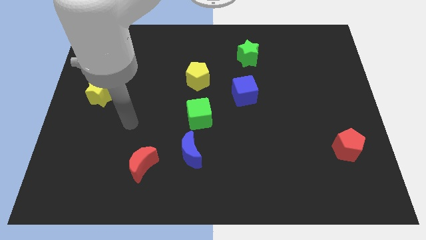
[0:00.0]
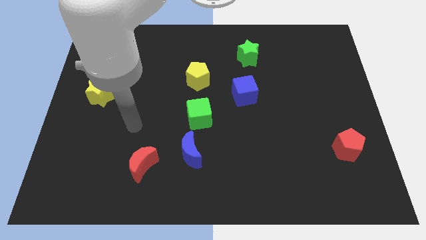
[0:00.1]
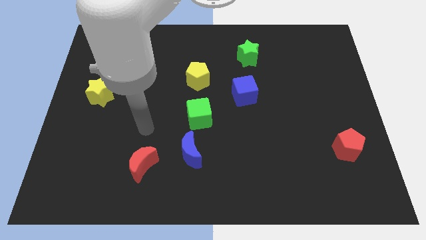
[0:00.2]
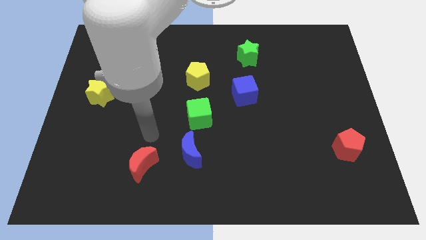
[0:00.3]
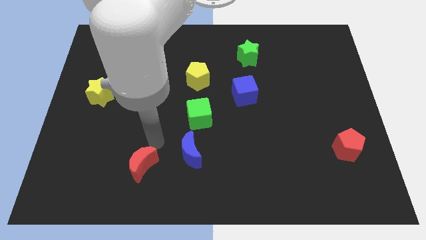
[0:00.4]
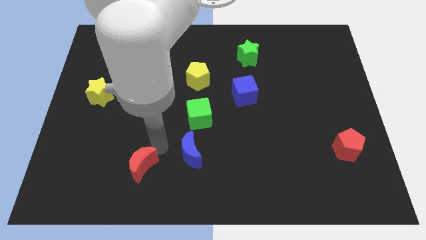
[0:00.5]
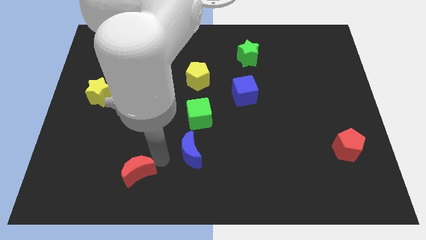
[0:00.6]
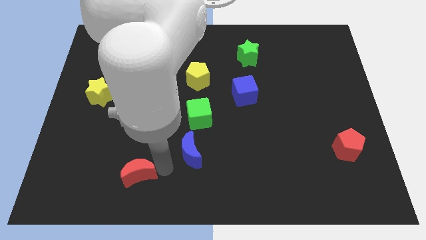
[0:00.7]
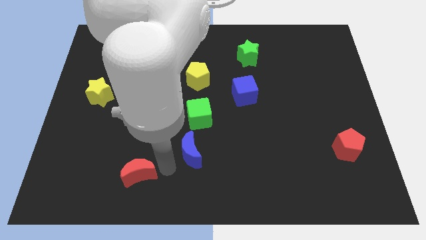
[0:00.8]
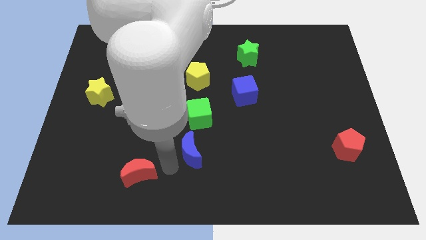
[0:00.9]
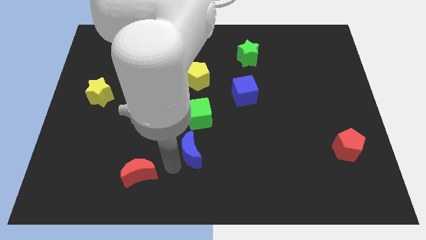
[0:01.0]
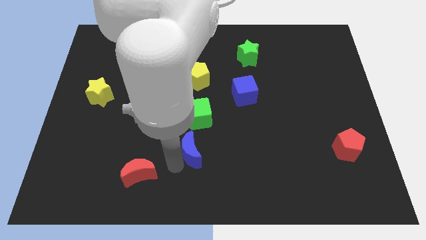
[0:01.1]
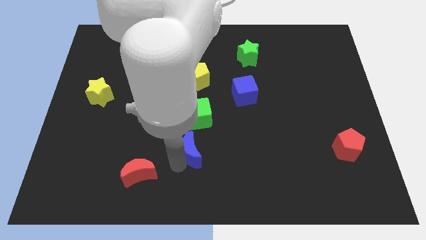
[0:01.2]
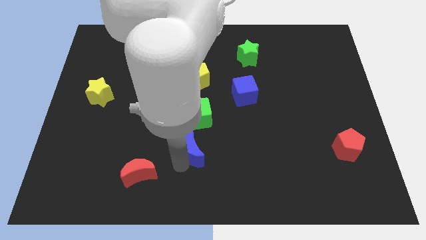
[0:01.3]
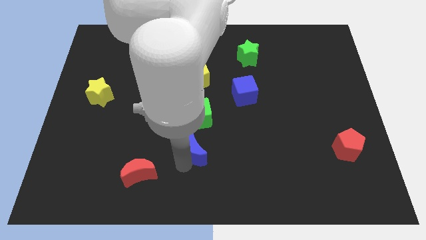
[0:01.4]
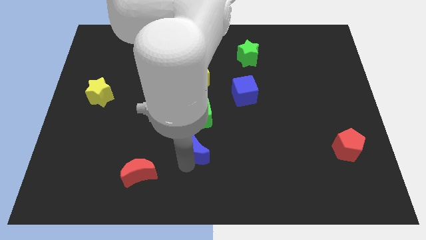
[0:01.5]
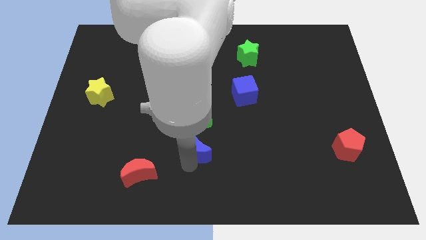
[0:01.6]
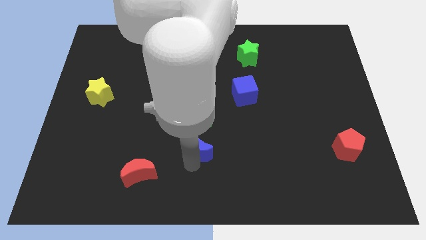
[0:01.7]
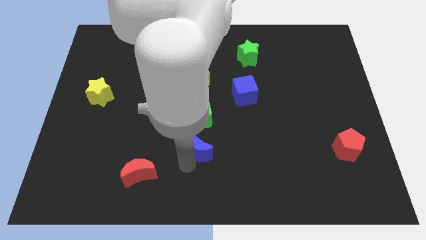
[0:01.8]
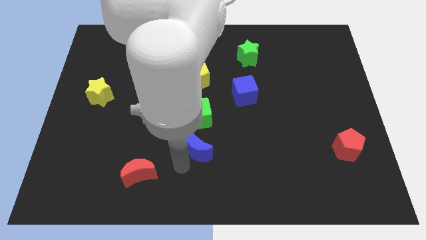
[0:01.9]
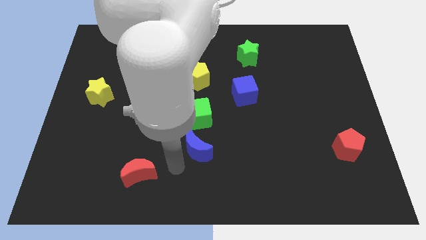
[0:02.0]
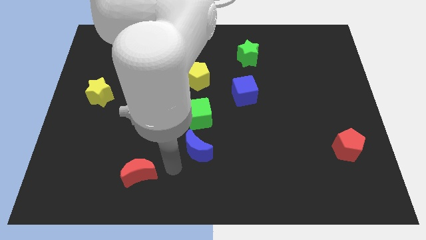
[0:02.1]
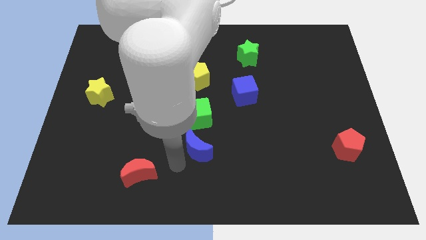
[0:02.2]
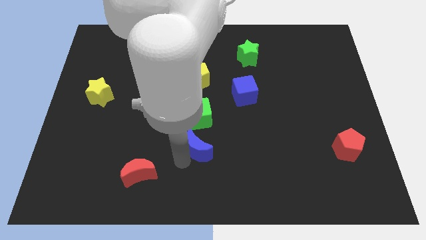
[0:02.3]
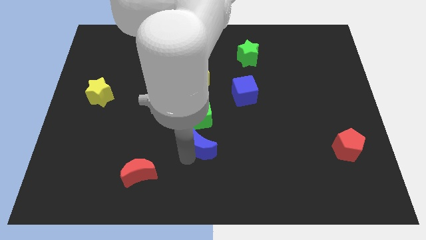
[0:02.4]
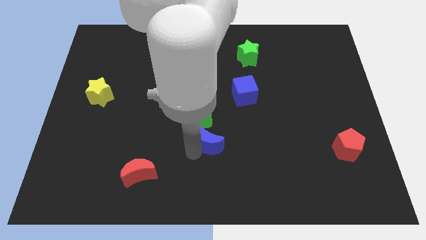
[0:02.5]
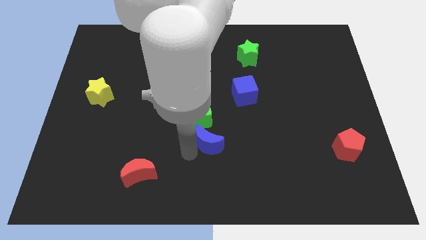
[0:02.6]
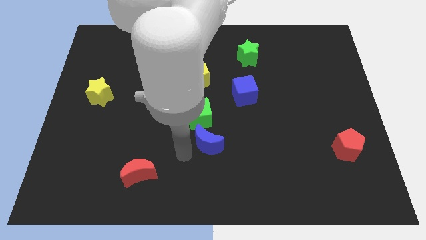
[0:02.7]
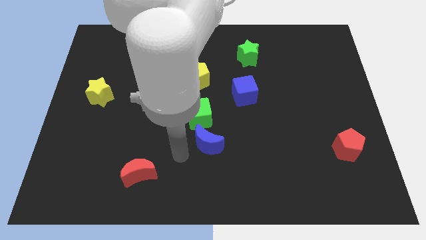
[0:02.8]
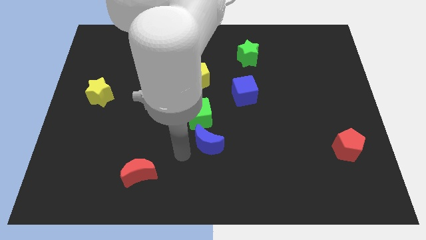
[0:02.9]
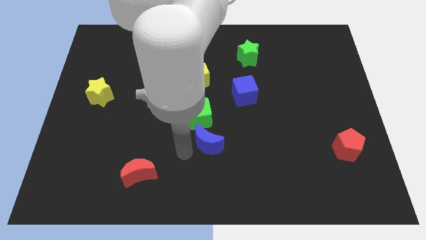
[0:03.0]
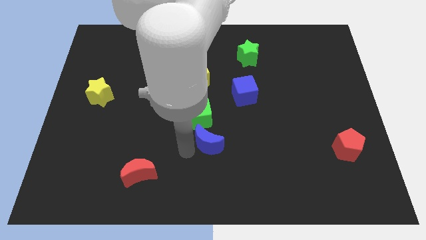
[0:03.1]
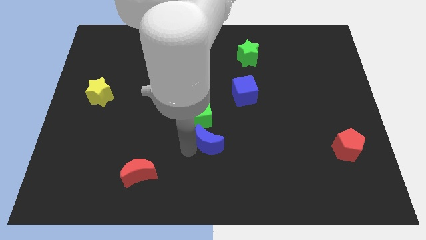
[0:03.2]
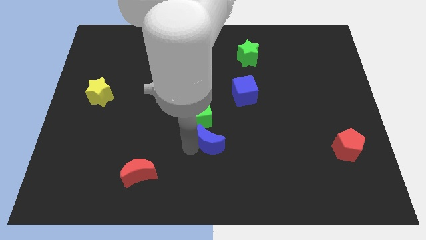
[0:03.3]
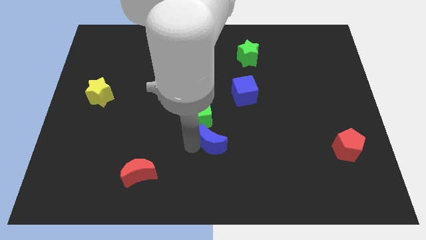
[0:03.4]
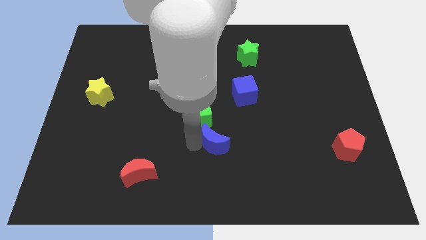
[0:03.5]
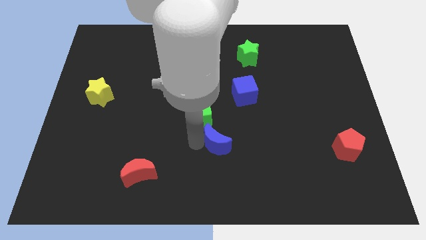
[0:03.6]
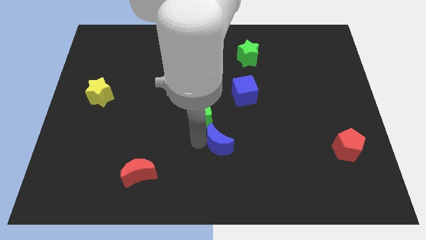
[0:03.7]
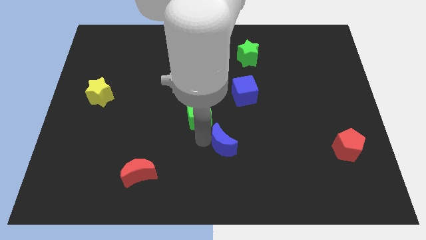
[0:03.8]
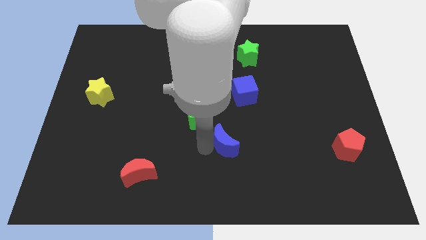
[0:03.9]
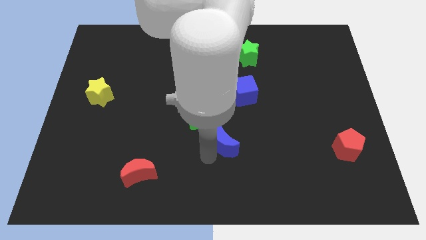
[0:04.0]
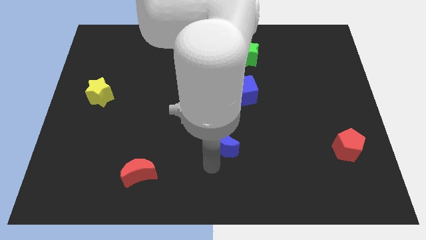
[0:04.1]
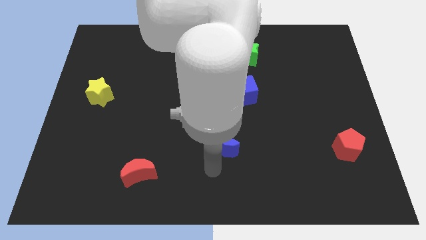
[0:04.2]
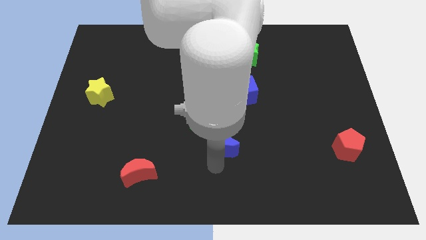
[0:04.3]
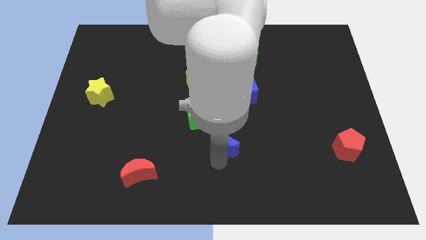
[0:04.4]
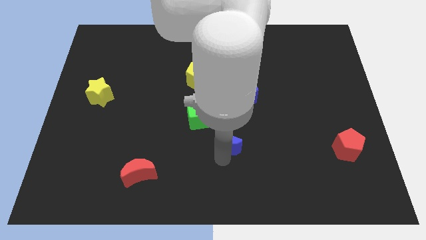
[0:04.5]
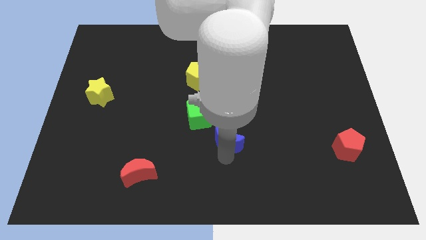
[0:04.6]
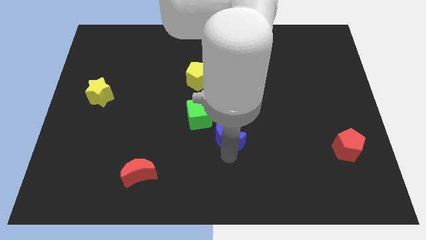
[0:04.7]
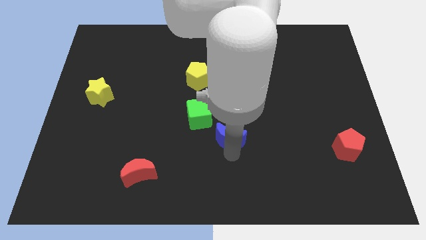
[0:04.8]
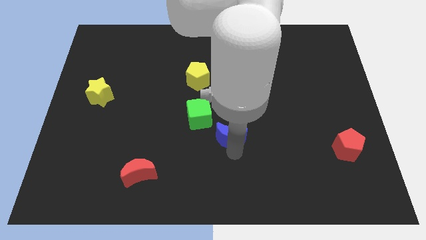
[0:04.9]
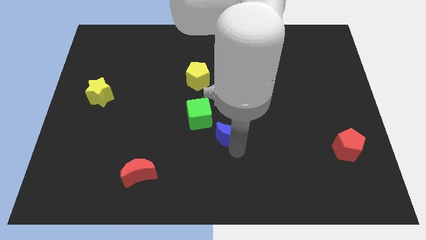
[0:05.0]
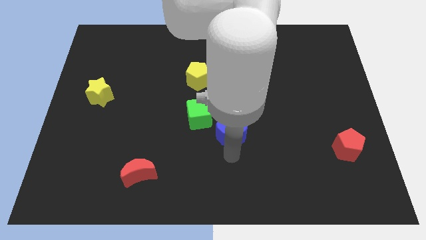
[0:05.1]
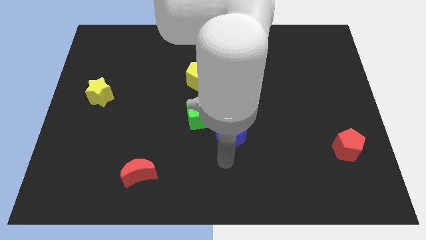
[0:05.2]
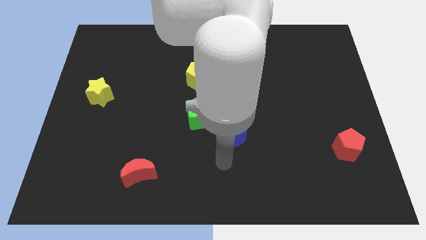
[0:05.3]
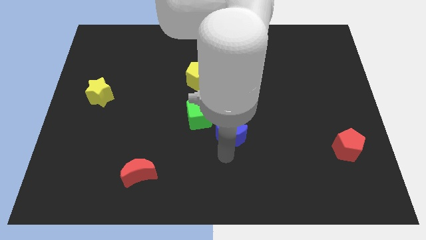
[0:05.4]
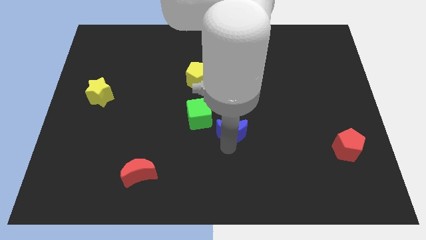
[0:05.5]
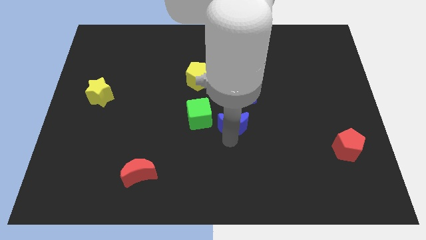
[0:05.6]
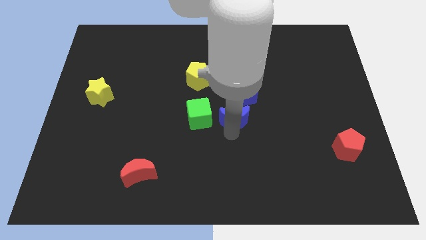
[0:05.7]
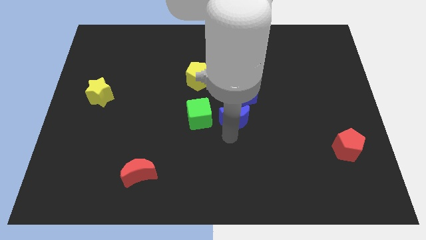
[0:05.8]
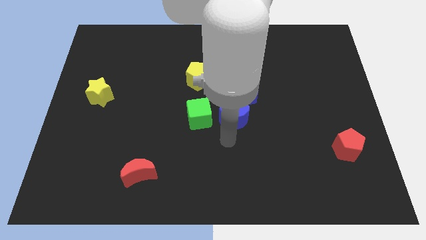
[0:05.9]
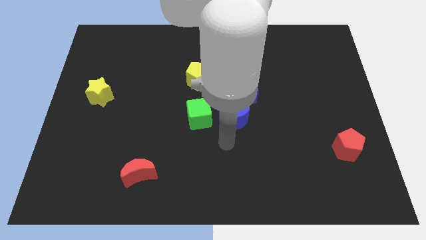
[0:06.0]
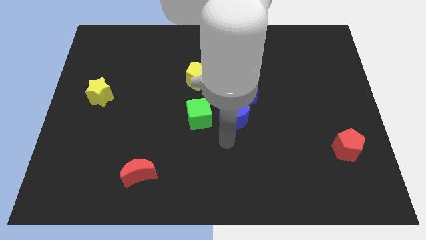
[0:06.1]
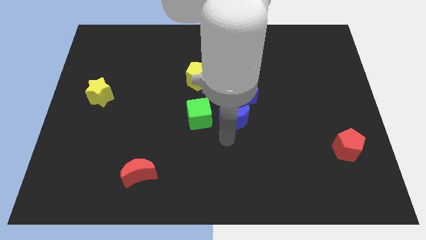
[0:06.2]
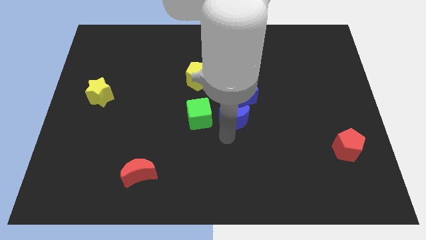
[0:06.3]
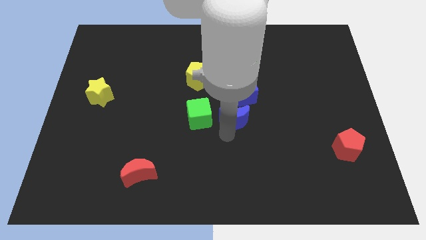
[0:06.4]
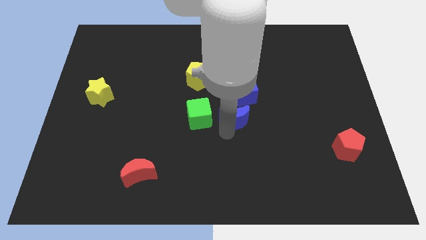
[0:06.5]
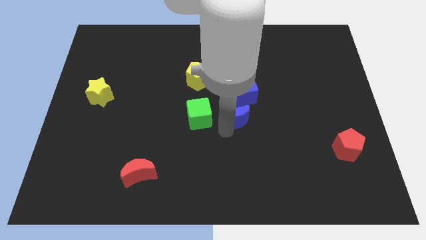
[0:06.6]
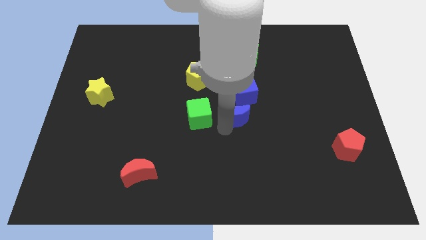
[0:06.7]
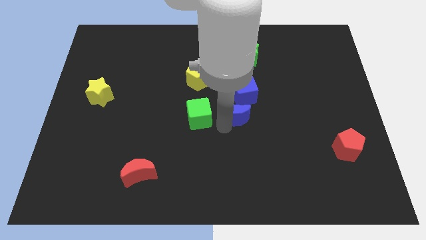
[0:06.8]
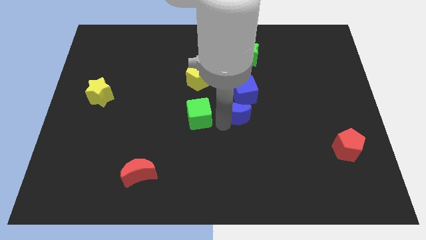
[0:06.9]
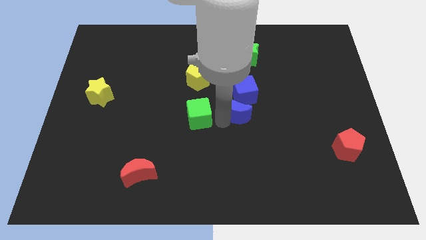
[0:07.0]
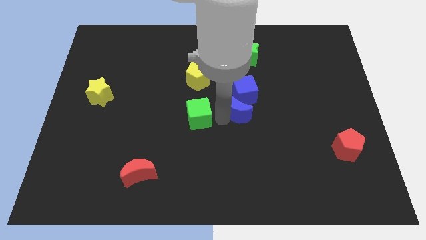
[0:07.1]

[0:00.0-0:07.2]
slide the blue moon to the blue cube

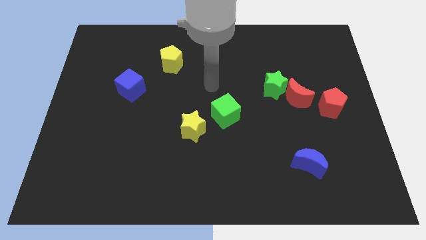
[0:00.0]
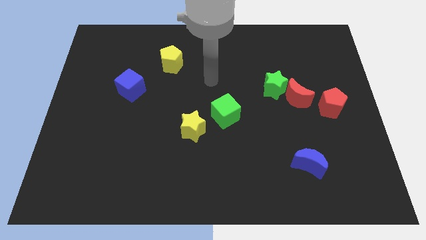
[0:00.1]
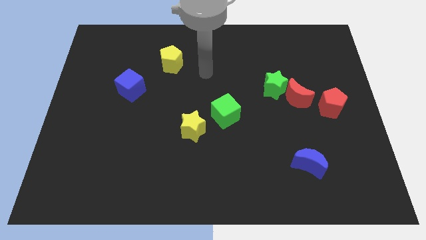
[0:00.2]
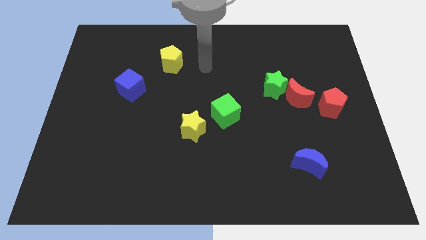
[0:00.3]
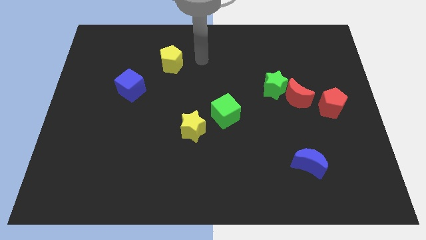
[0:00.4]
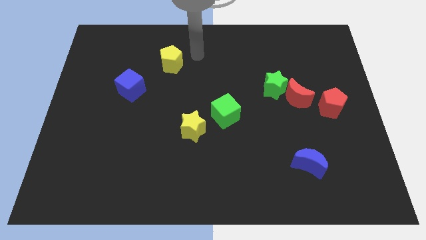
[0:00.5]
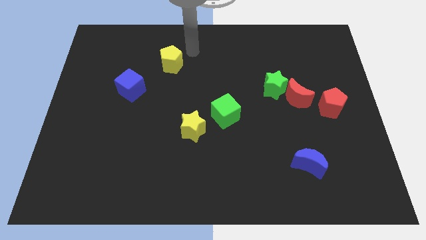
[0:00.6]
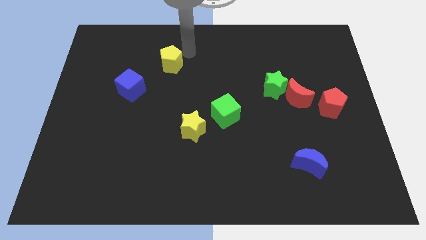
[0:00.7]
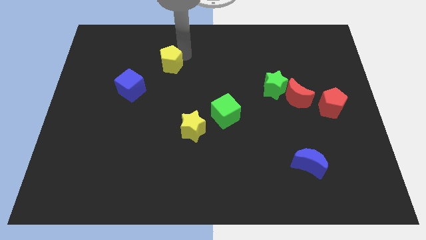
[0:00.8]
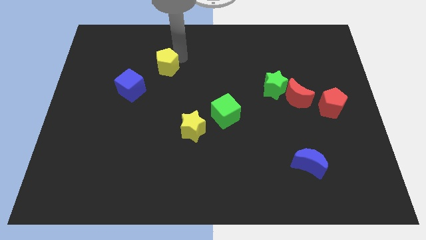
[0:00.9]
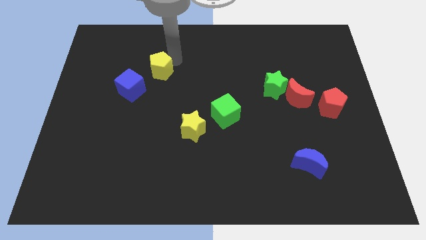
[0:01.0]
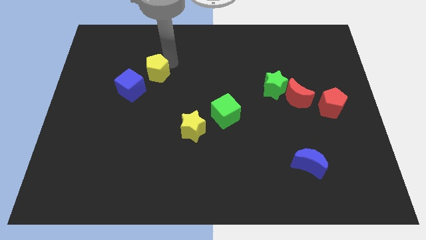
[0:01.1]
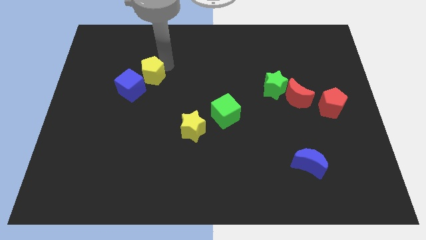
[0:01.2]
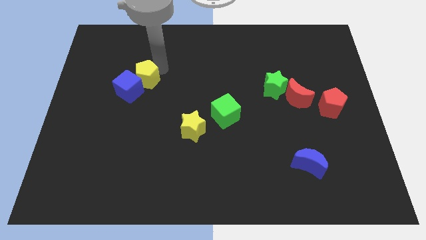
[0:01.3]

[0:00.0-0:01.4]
push the yellow pentagon to the blue cube
